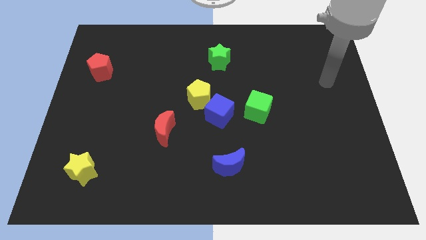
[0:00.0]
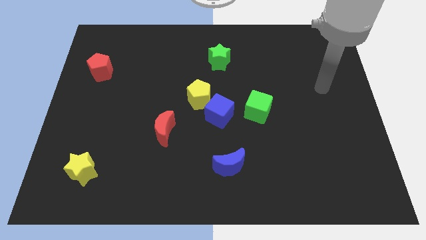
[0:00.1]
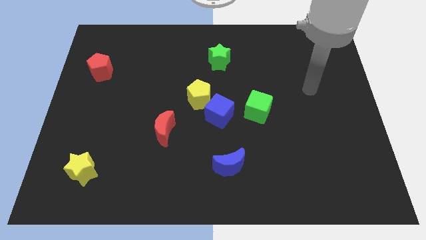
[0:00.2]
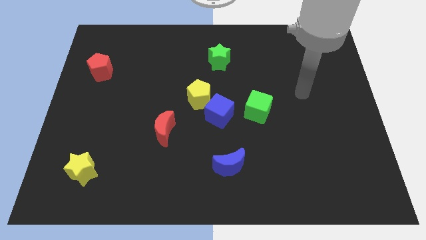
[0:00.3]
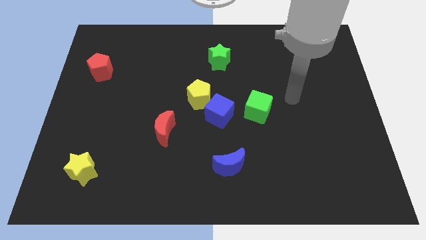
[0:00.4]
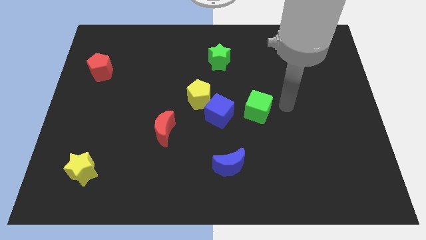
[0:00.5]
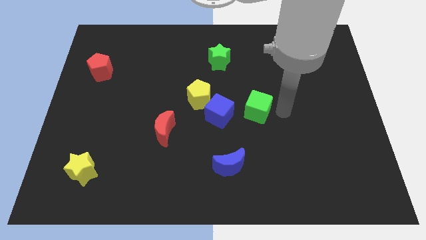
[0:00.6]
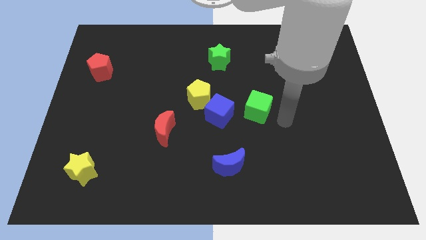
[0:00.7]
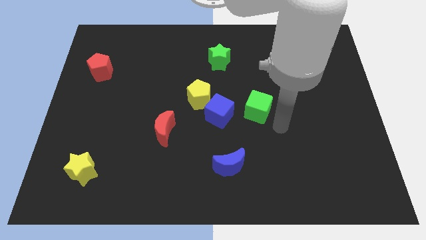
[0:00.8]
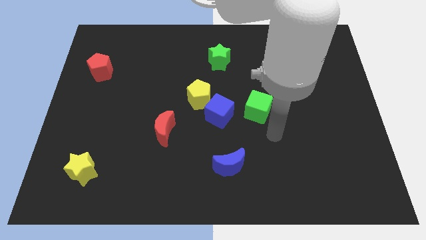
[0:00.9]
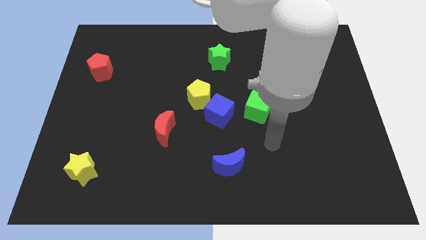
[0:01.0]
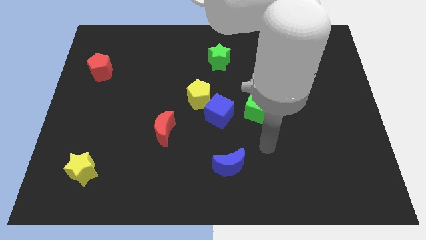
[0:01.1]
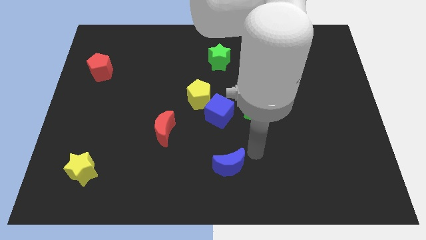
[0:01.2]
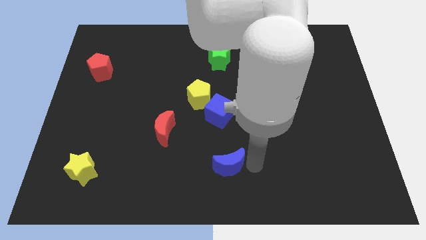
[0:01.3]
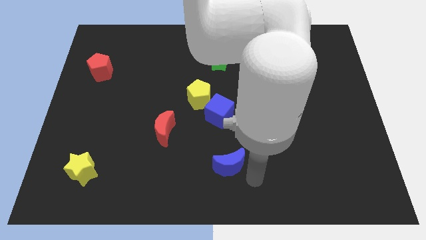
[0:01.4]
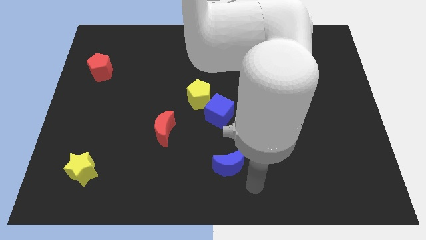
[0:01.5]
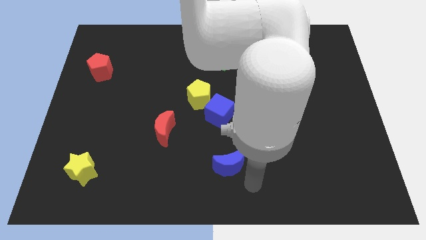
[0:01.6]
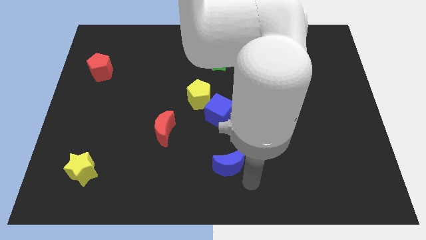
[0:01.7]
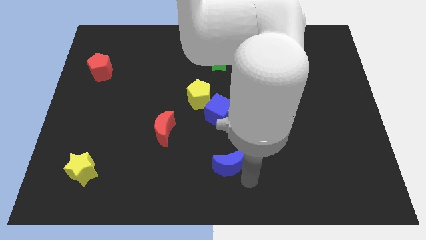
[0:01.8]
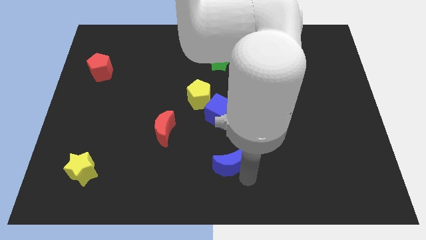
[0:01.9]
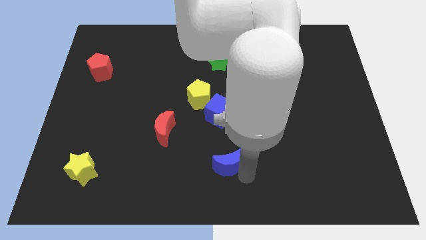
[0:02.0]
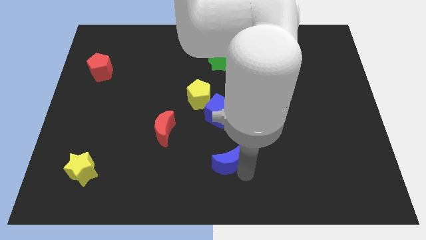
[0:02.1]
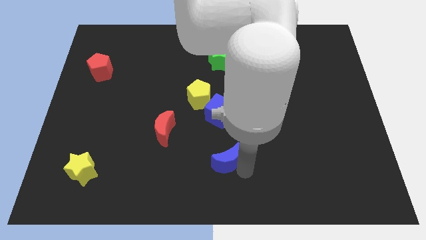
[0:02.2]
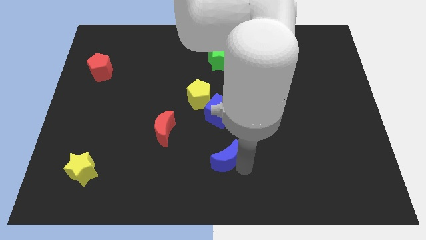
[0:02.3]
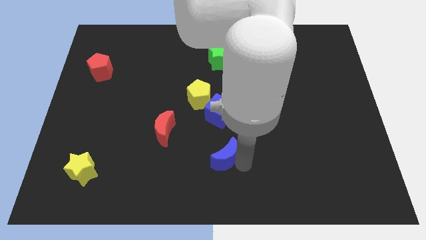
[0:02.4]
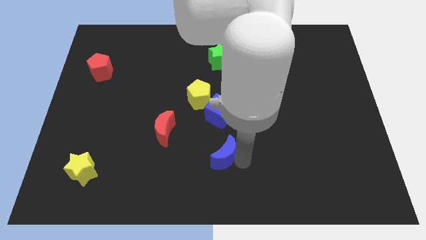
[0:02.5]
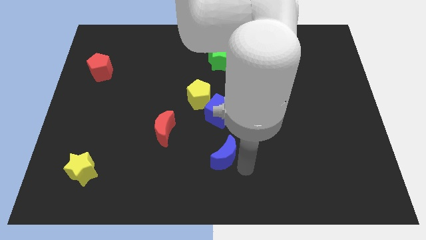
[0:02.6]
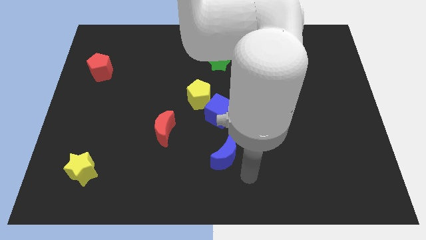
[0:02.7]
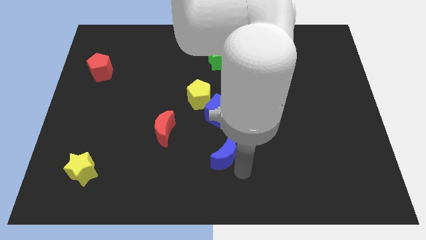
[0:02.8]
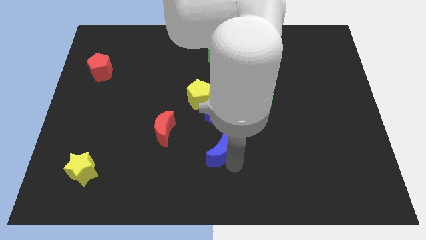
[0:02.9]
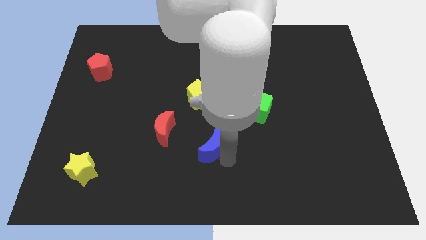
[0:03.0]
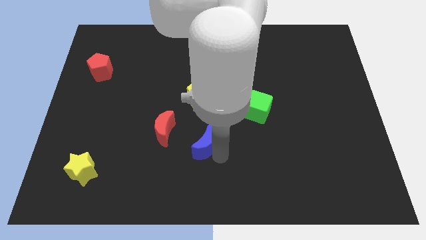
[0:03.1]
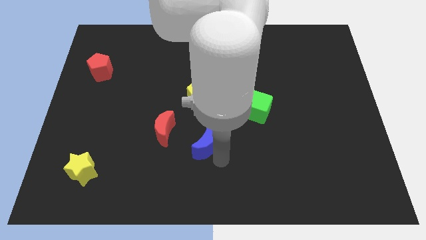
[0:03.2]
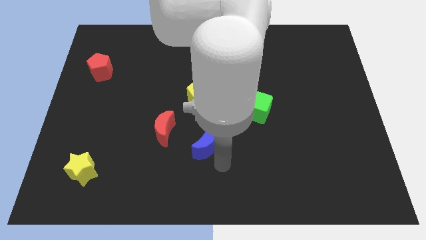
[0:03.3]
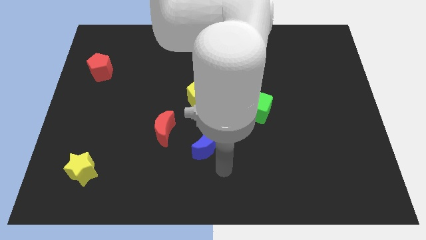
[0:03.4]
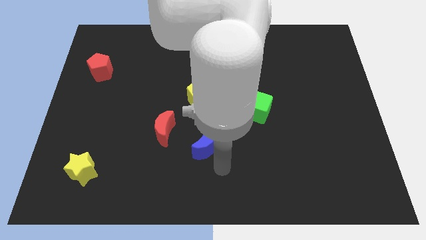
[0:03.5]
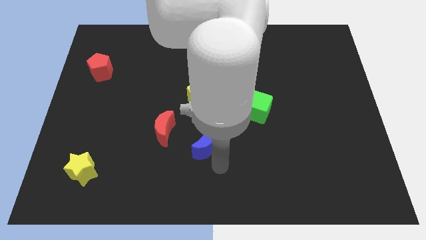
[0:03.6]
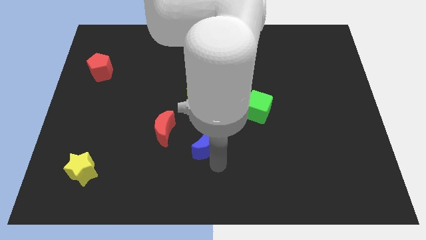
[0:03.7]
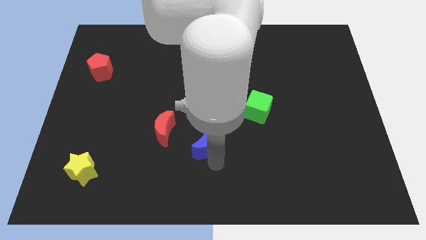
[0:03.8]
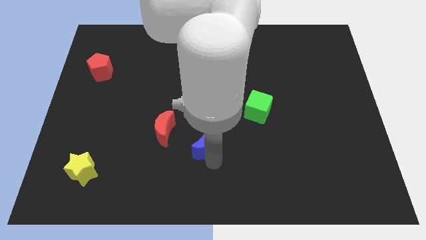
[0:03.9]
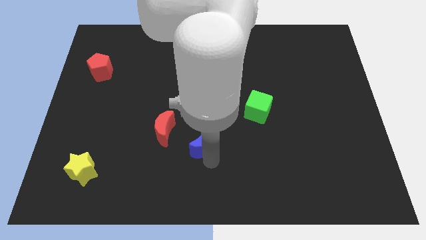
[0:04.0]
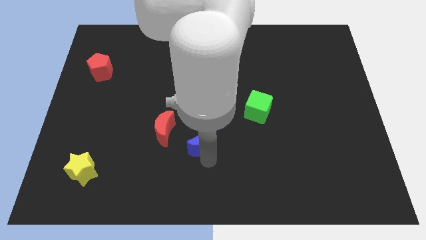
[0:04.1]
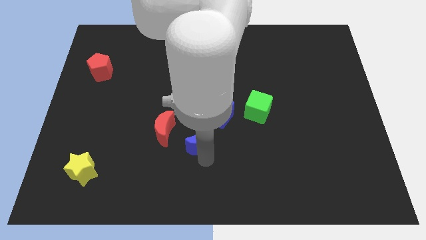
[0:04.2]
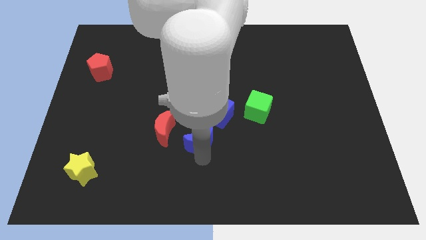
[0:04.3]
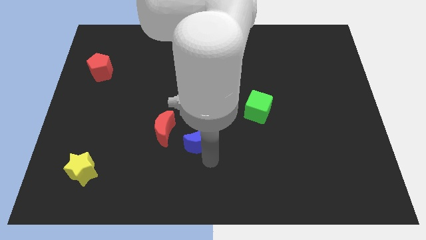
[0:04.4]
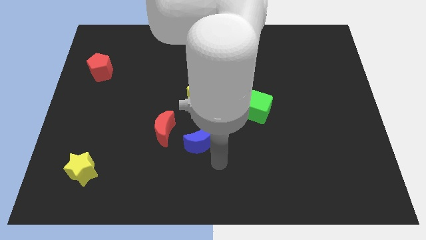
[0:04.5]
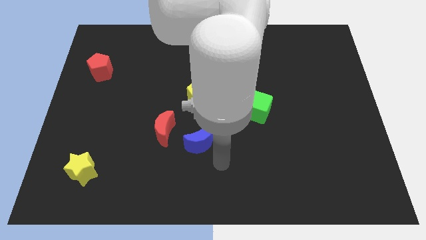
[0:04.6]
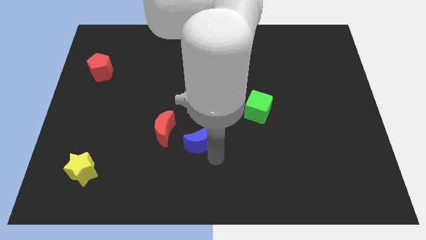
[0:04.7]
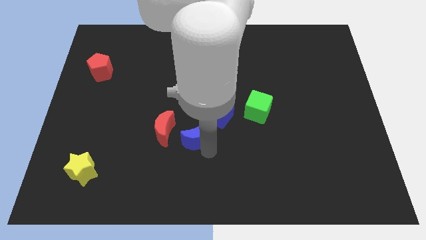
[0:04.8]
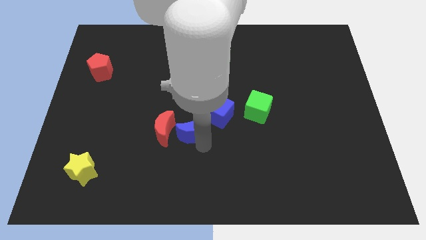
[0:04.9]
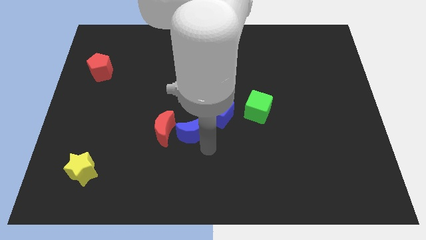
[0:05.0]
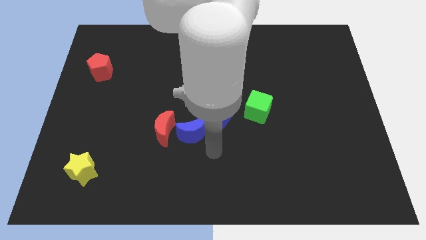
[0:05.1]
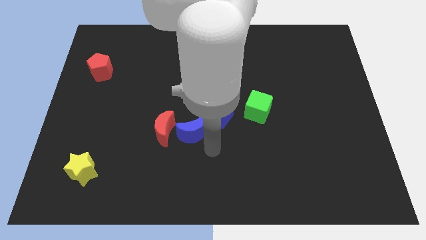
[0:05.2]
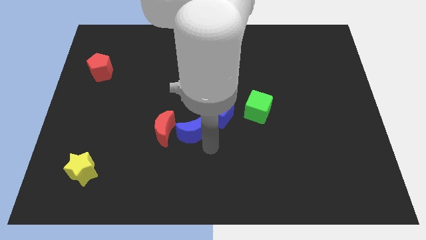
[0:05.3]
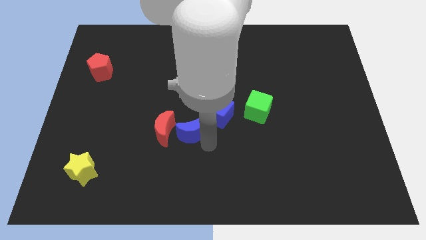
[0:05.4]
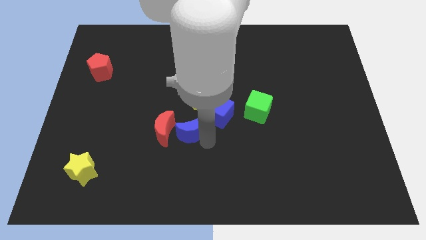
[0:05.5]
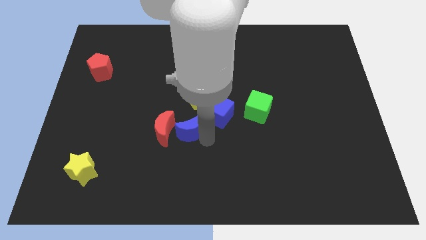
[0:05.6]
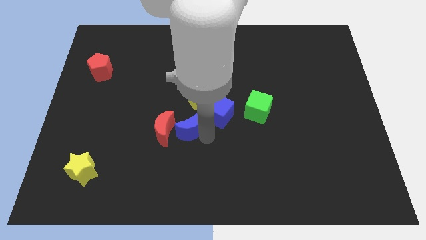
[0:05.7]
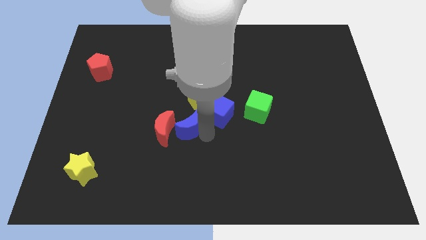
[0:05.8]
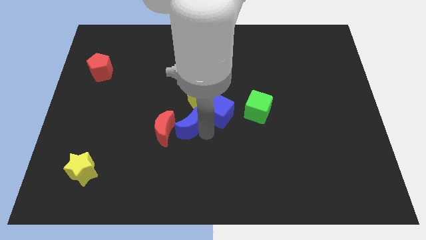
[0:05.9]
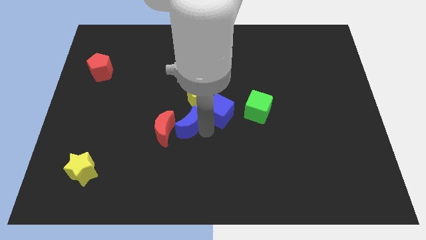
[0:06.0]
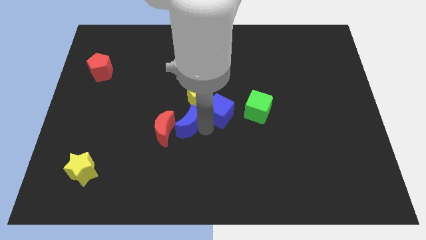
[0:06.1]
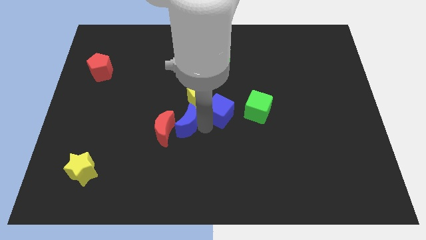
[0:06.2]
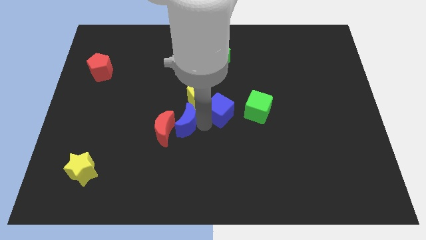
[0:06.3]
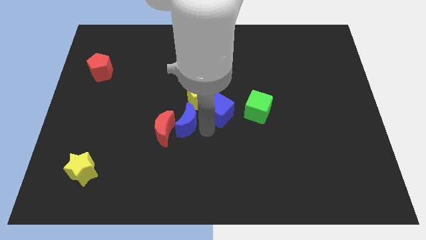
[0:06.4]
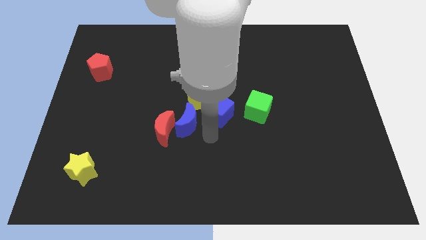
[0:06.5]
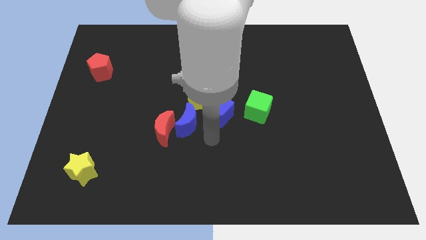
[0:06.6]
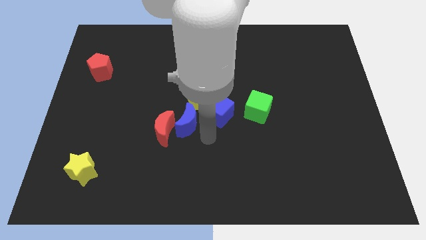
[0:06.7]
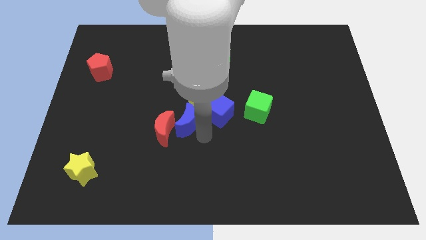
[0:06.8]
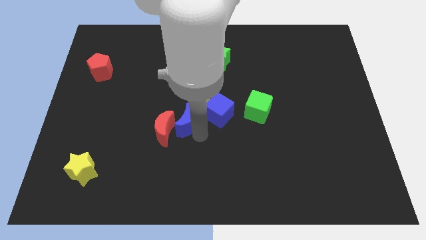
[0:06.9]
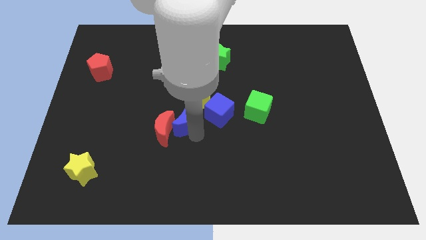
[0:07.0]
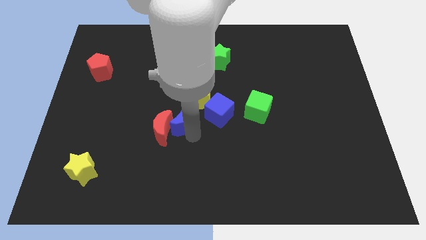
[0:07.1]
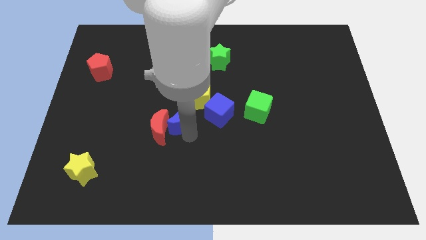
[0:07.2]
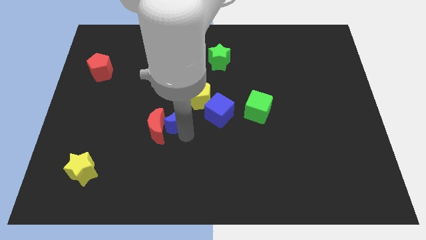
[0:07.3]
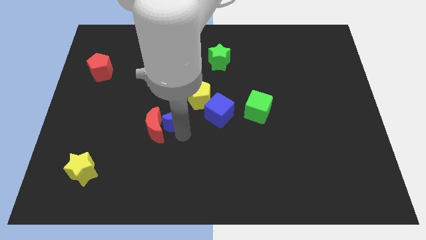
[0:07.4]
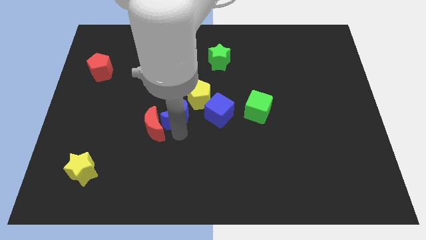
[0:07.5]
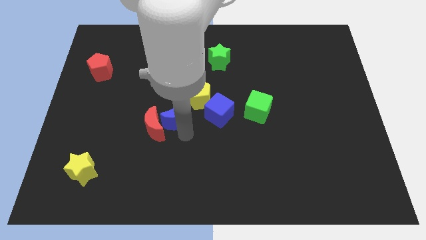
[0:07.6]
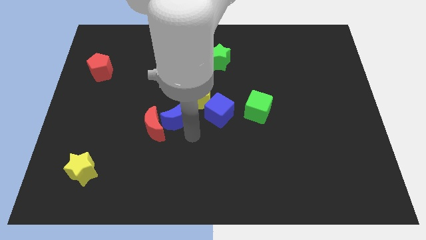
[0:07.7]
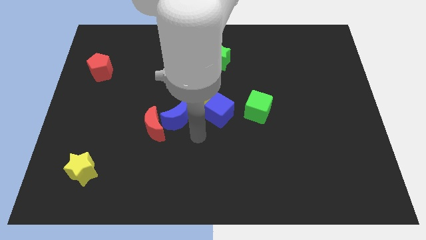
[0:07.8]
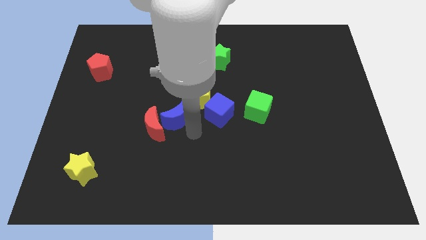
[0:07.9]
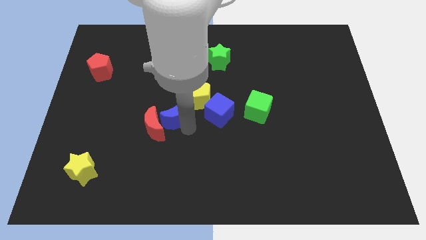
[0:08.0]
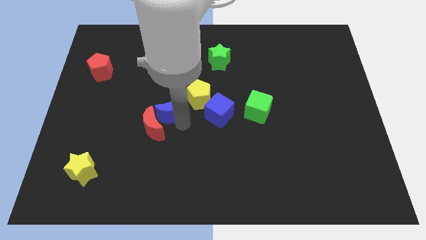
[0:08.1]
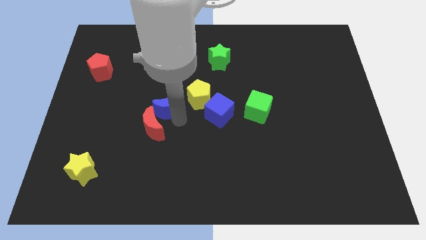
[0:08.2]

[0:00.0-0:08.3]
move the blue moon upwards and left diagonally
